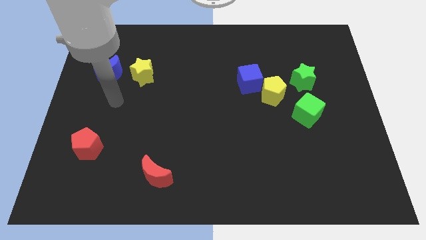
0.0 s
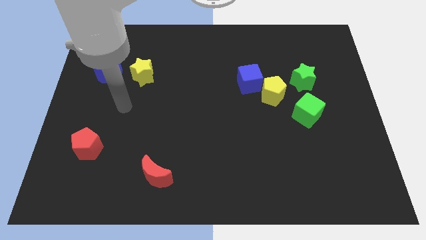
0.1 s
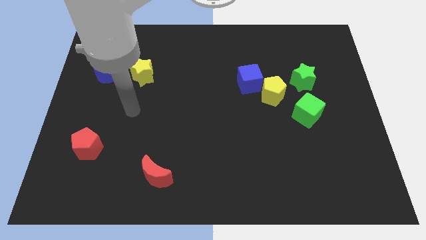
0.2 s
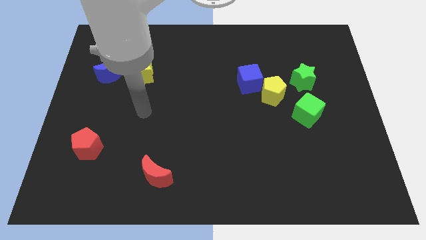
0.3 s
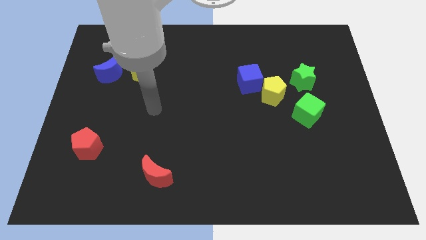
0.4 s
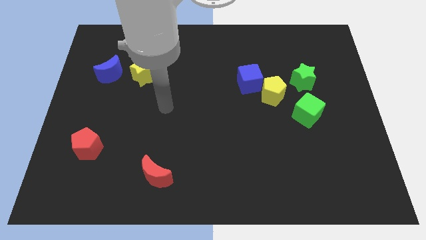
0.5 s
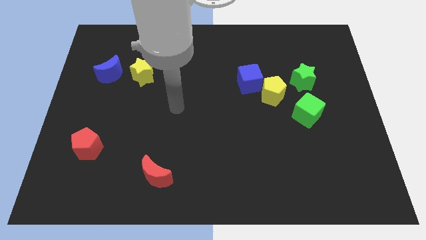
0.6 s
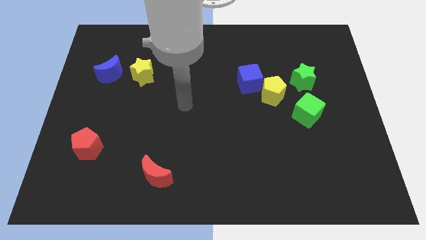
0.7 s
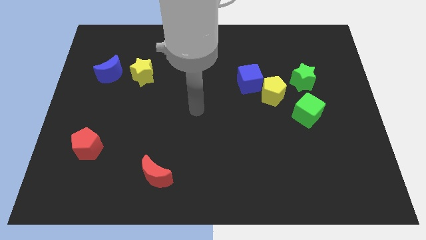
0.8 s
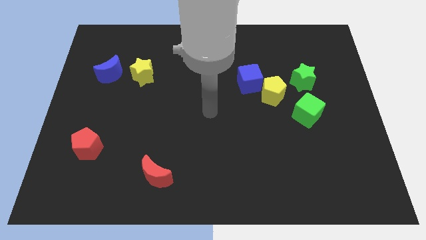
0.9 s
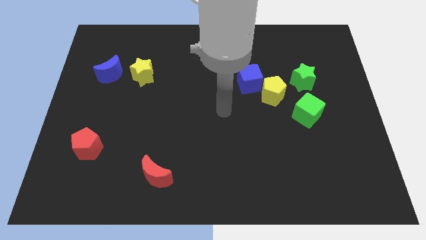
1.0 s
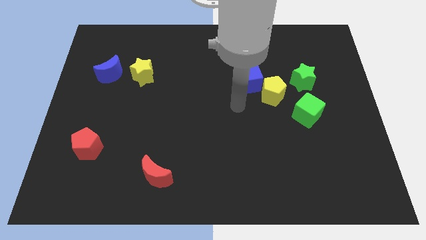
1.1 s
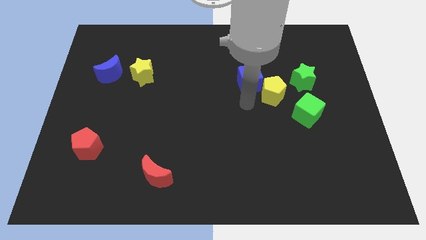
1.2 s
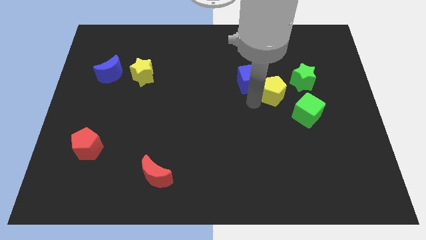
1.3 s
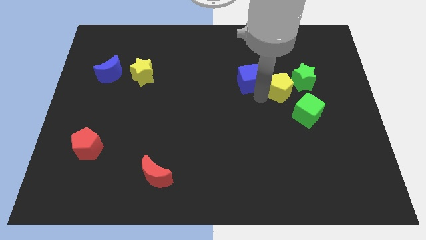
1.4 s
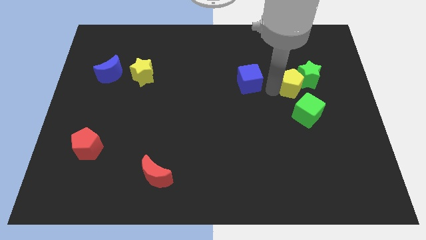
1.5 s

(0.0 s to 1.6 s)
separate the blue cube from the yellow pentagon

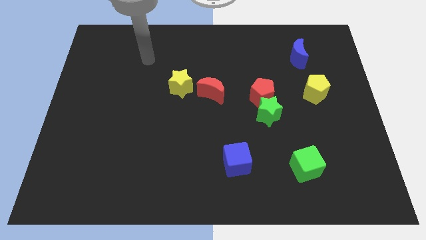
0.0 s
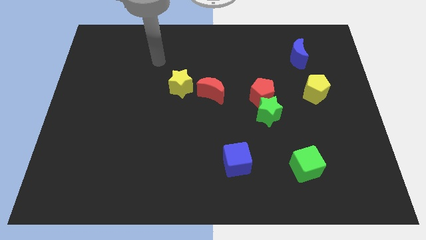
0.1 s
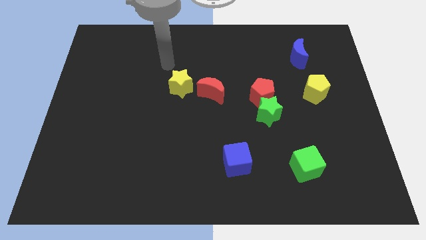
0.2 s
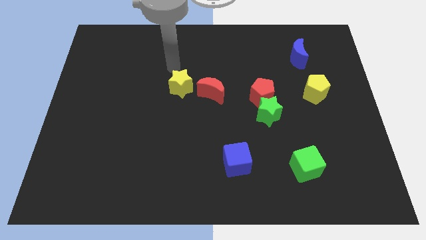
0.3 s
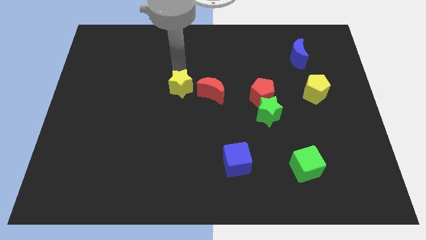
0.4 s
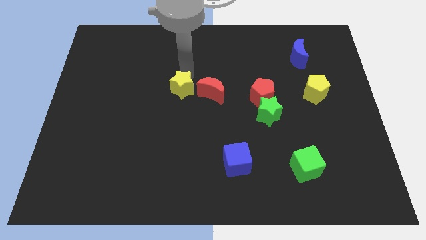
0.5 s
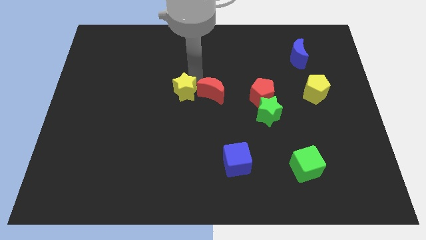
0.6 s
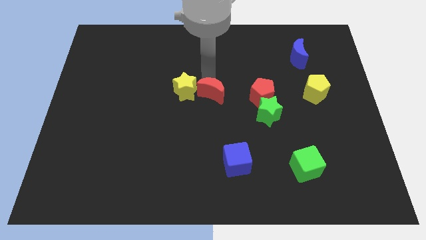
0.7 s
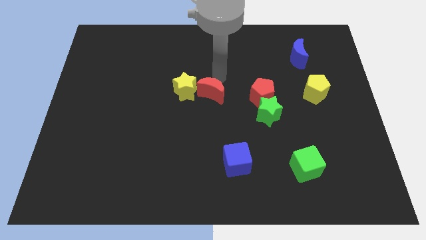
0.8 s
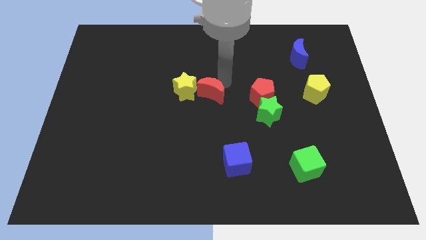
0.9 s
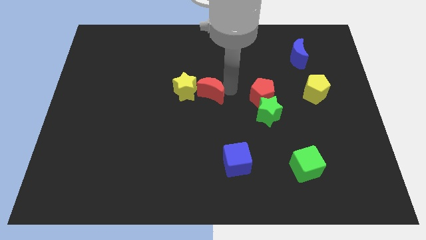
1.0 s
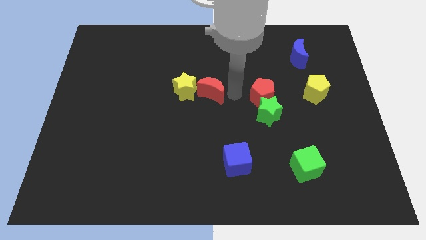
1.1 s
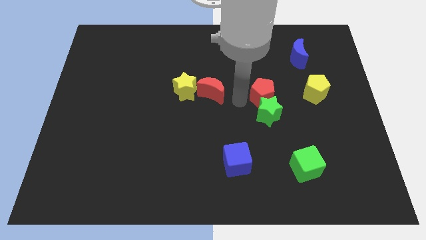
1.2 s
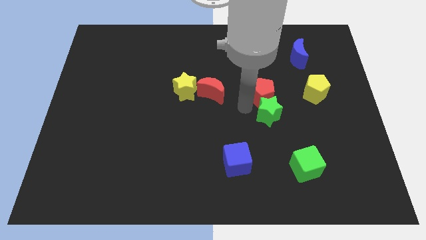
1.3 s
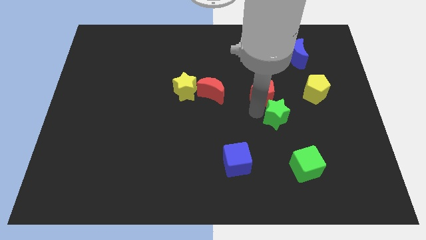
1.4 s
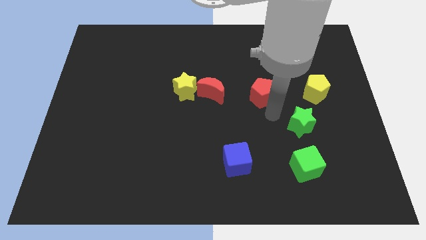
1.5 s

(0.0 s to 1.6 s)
move the red pentagon away from the green star

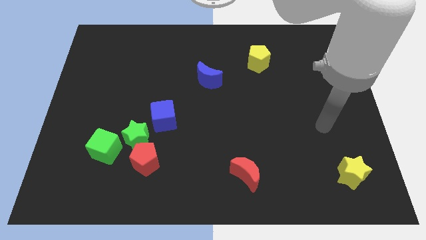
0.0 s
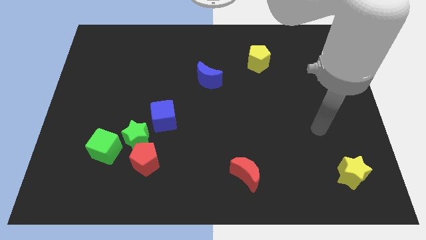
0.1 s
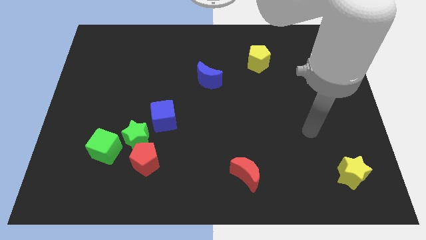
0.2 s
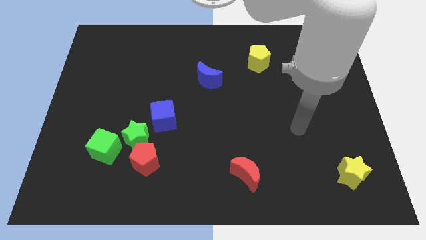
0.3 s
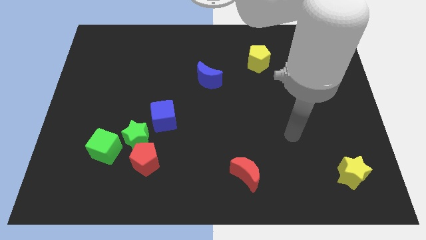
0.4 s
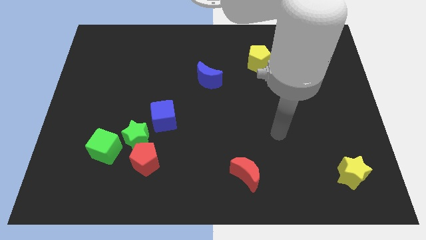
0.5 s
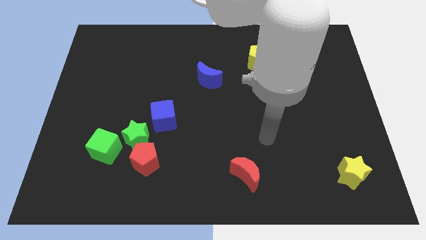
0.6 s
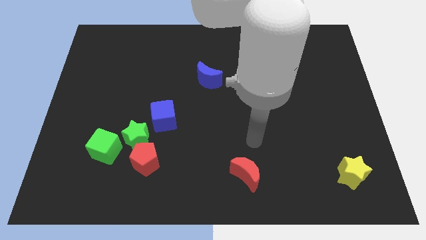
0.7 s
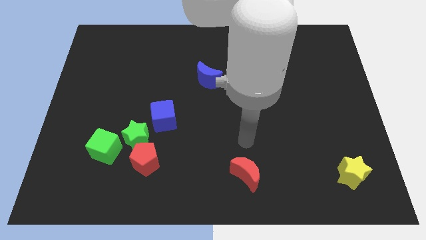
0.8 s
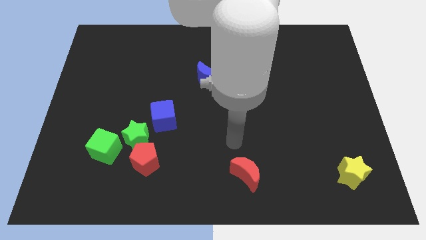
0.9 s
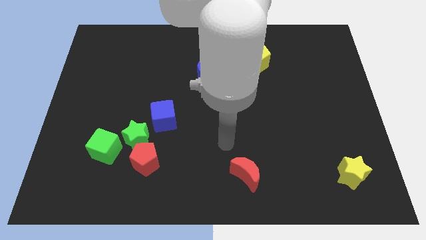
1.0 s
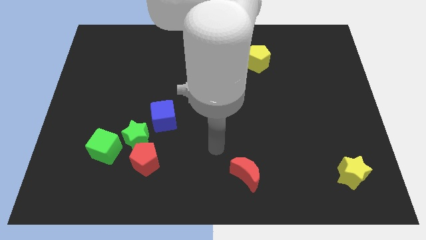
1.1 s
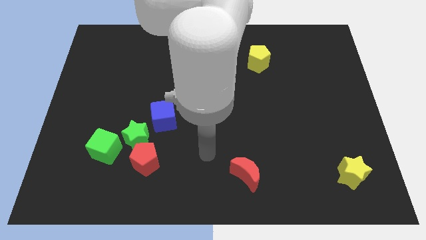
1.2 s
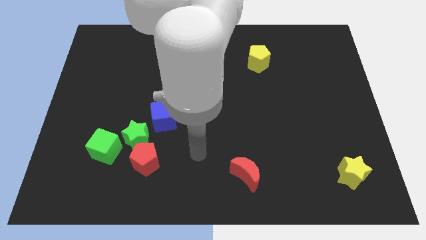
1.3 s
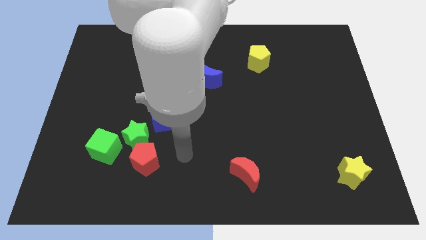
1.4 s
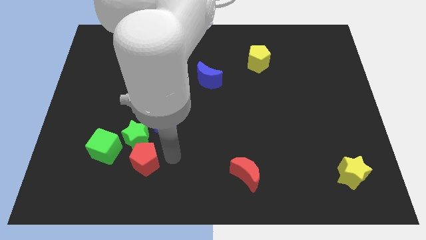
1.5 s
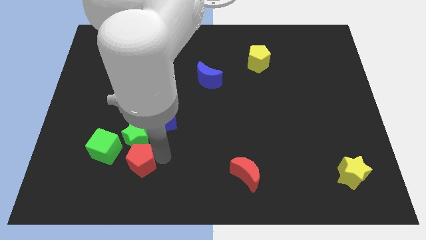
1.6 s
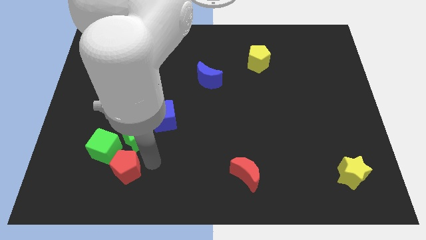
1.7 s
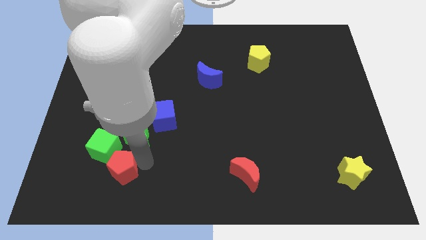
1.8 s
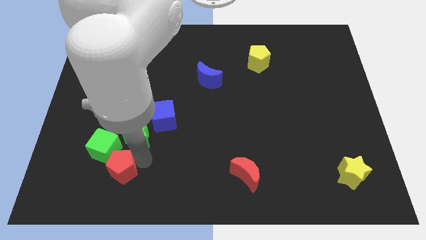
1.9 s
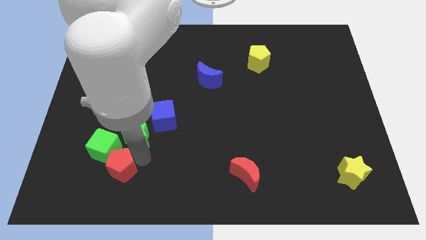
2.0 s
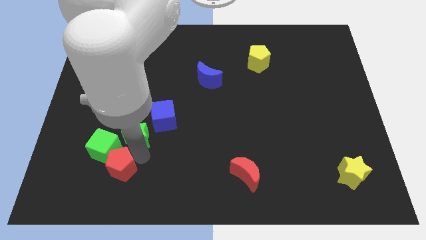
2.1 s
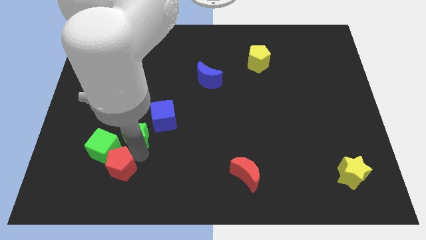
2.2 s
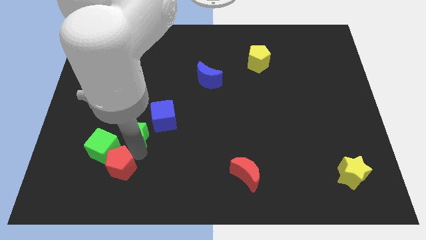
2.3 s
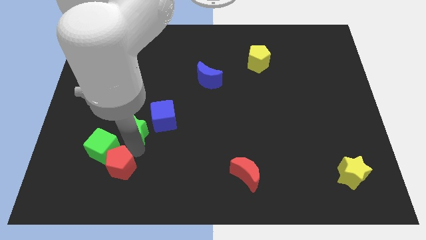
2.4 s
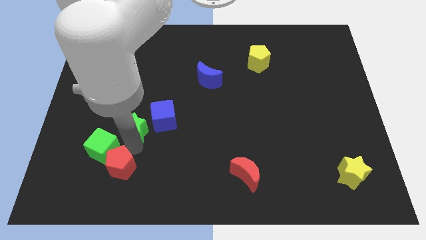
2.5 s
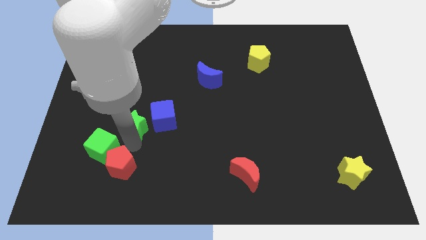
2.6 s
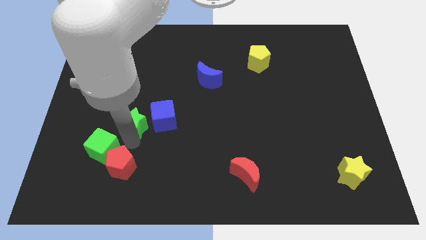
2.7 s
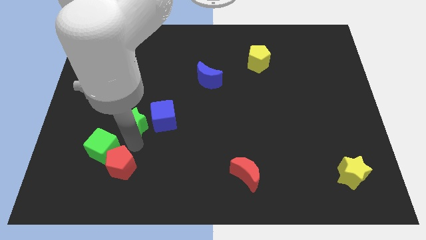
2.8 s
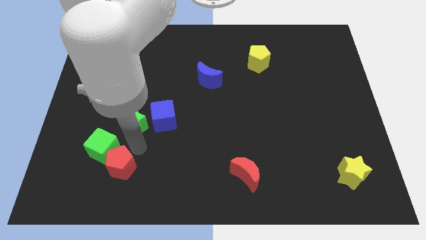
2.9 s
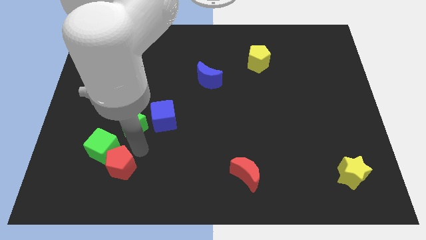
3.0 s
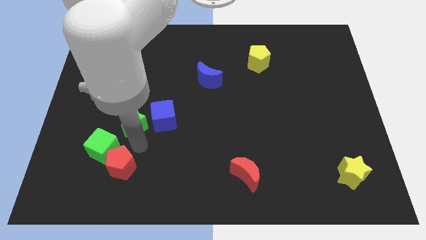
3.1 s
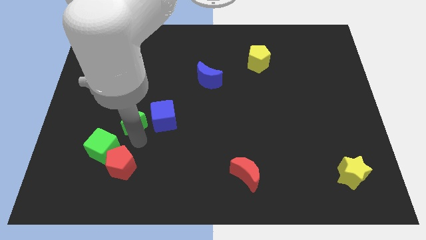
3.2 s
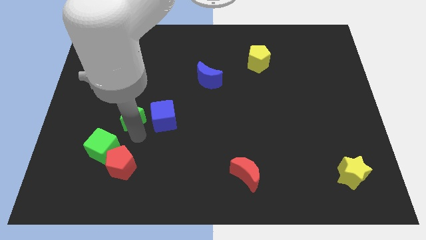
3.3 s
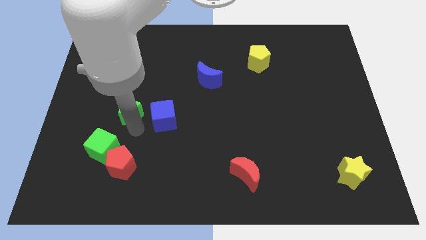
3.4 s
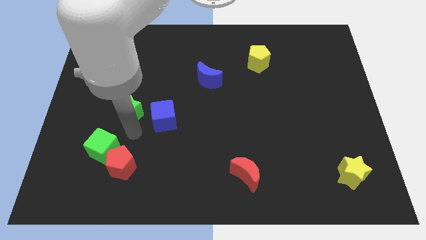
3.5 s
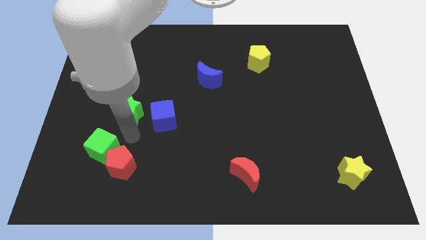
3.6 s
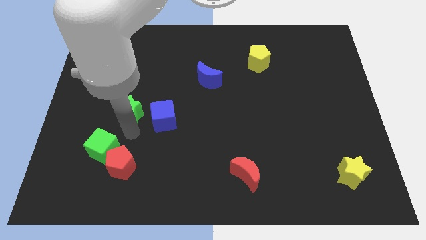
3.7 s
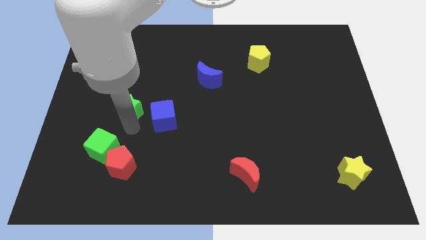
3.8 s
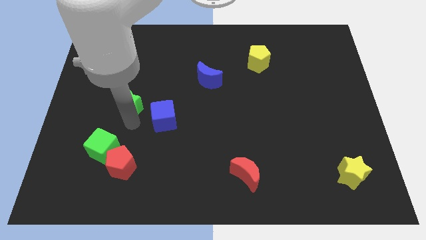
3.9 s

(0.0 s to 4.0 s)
move the green star away from the group of blocks

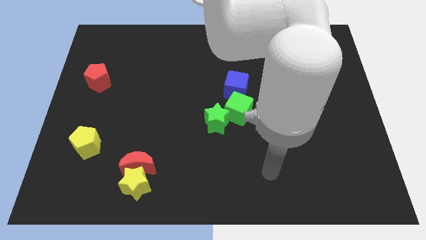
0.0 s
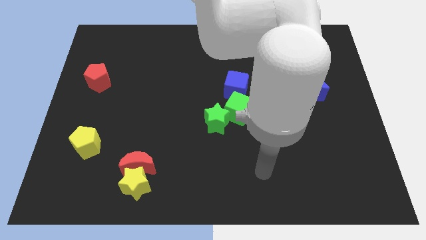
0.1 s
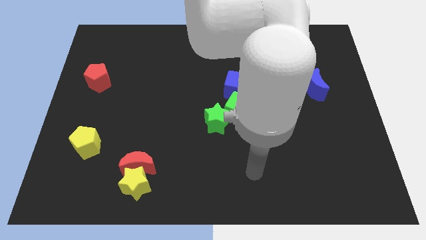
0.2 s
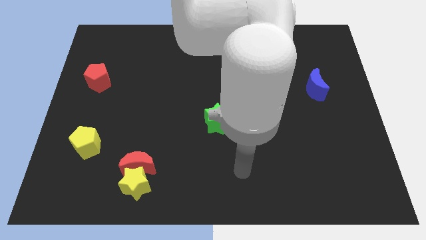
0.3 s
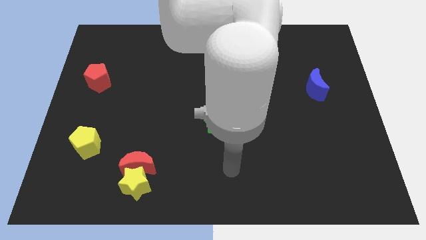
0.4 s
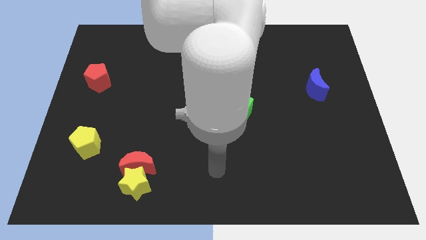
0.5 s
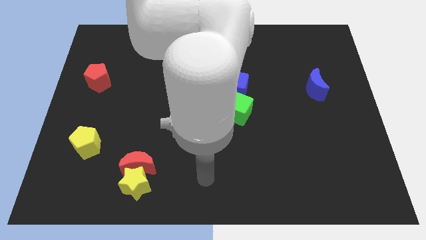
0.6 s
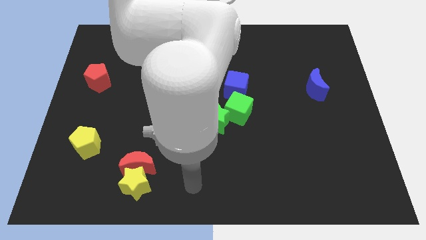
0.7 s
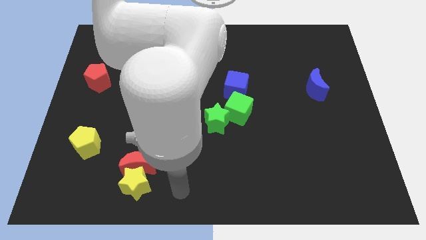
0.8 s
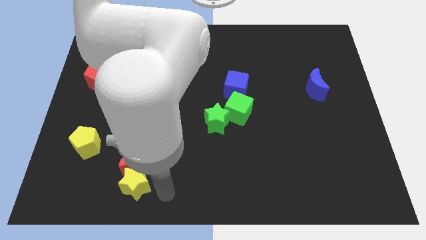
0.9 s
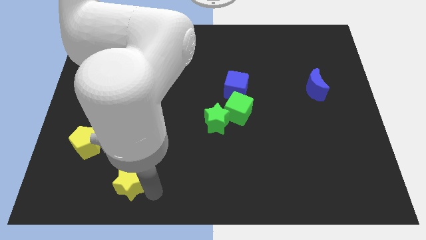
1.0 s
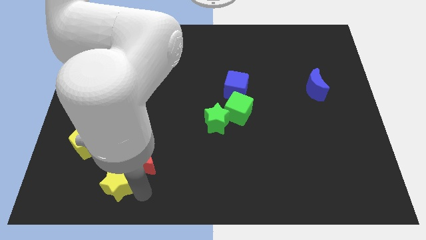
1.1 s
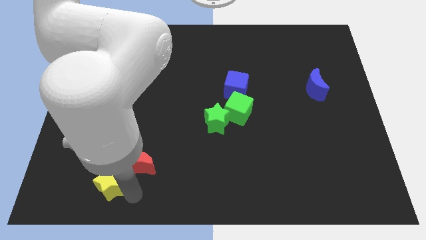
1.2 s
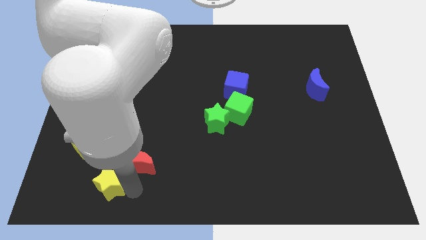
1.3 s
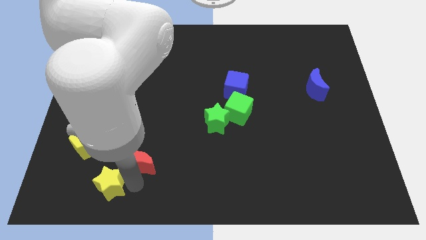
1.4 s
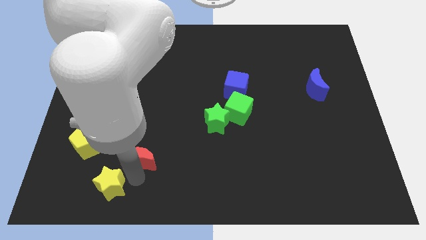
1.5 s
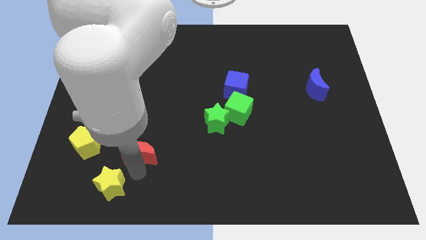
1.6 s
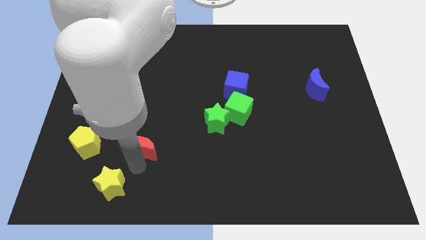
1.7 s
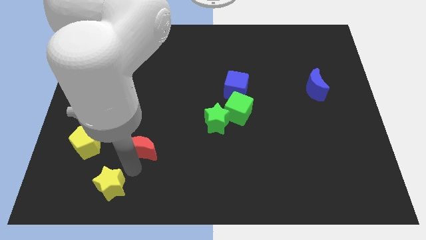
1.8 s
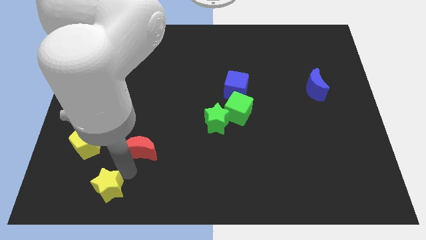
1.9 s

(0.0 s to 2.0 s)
separate the red moon from the yellow star

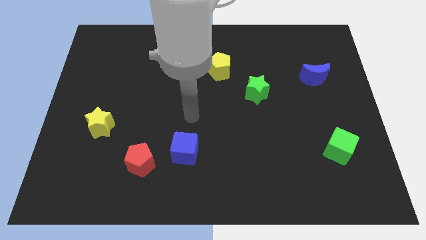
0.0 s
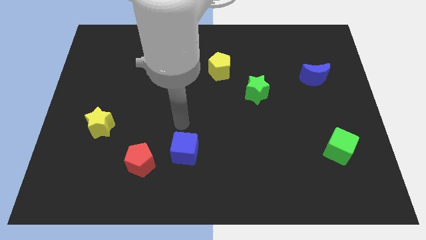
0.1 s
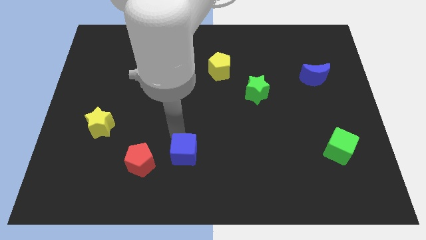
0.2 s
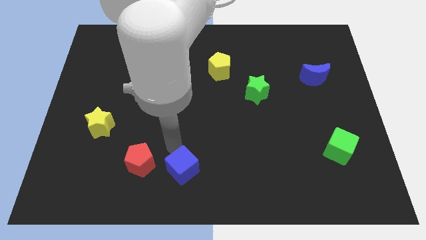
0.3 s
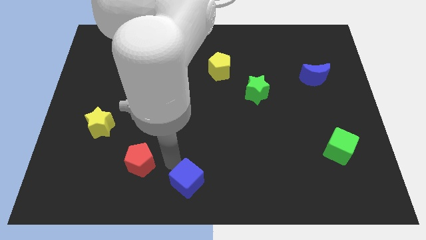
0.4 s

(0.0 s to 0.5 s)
separate the red pentagon from the blue cube
